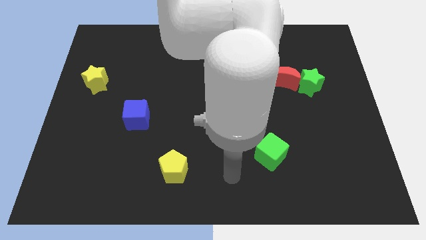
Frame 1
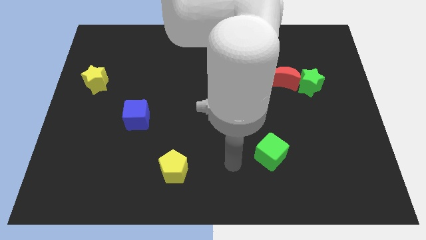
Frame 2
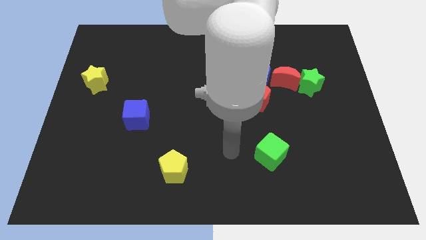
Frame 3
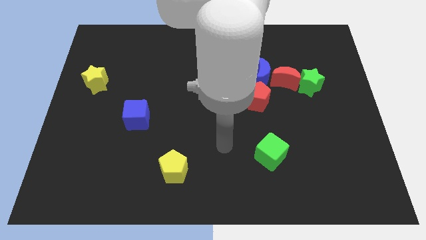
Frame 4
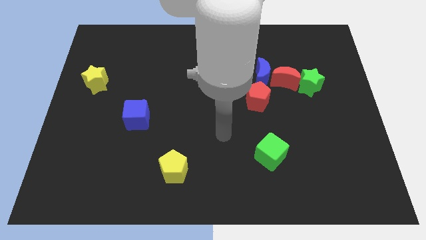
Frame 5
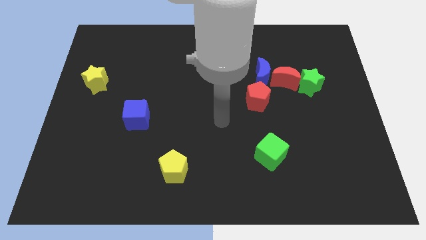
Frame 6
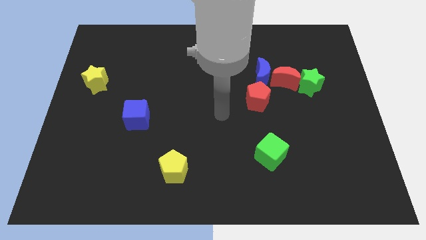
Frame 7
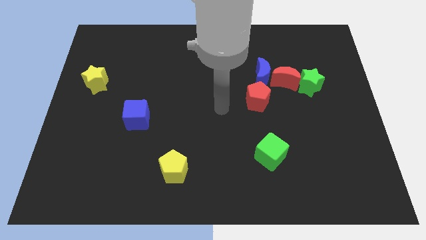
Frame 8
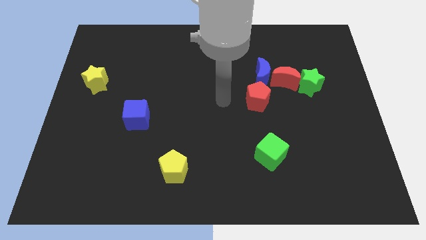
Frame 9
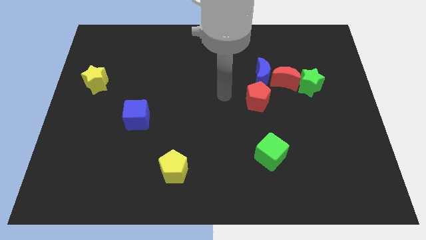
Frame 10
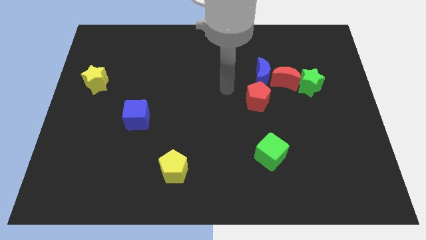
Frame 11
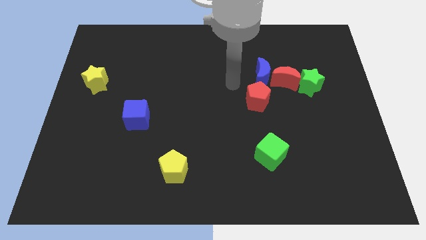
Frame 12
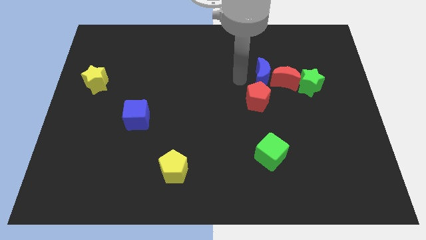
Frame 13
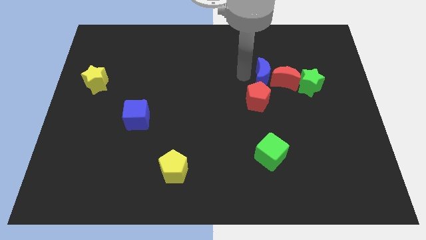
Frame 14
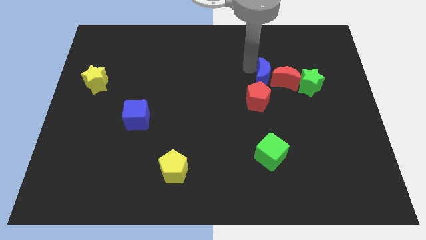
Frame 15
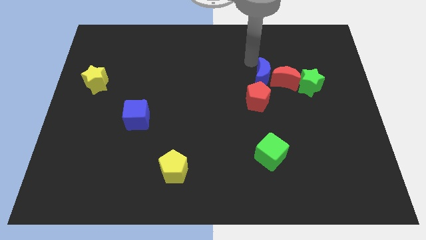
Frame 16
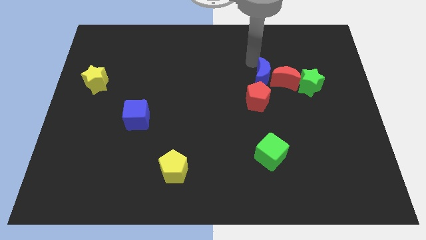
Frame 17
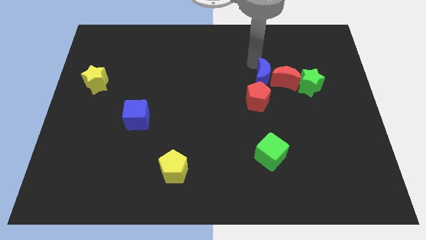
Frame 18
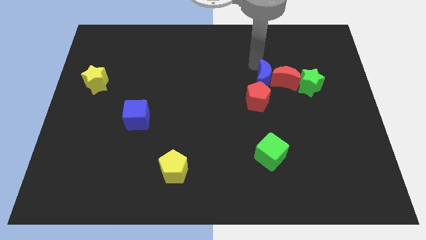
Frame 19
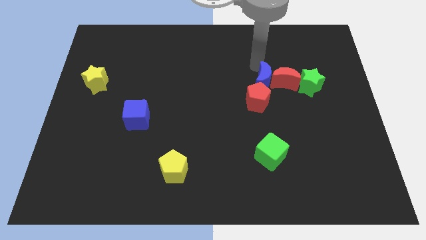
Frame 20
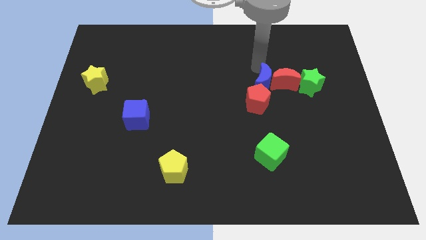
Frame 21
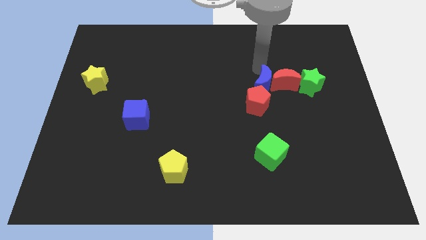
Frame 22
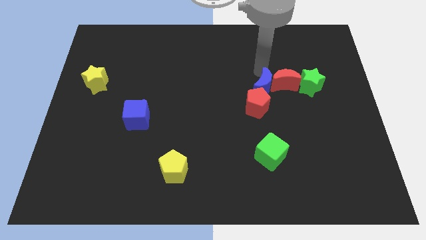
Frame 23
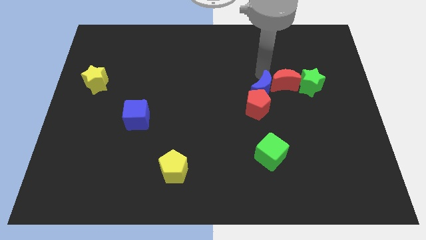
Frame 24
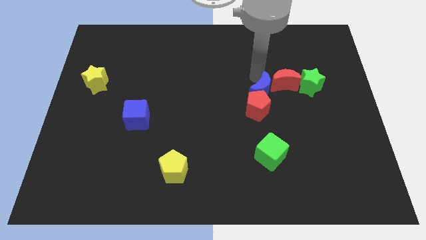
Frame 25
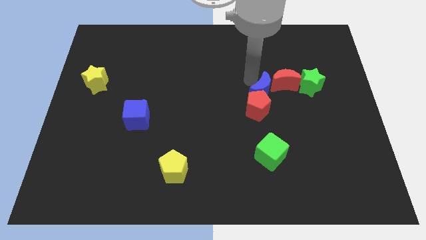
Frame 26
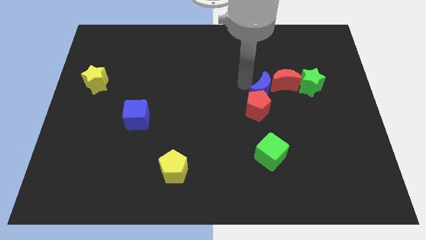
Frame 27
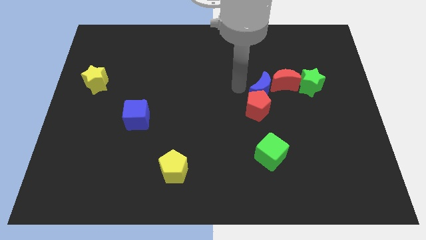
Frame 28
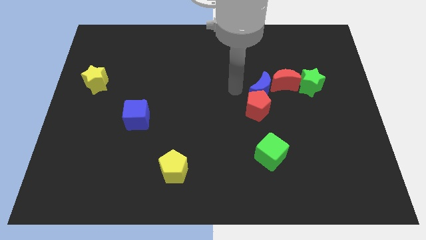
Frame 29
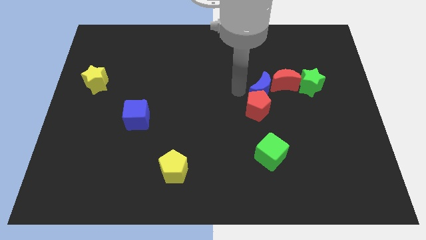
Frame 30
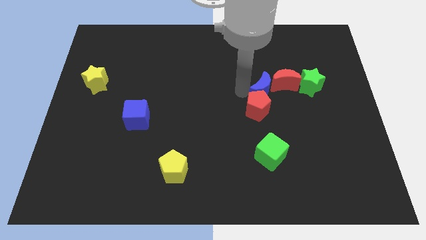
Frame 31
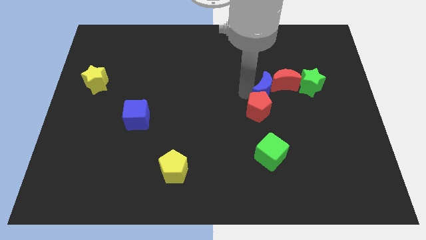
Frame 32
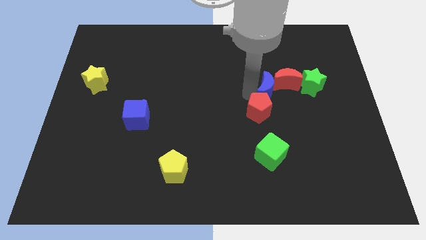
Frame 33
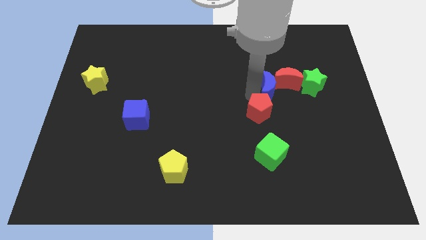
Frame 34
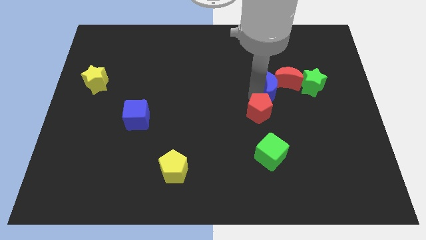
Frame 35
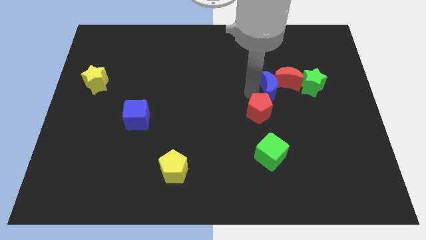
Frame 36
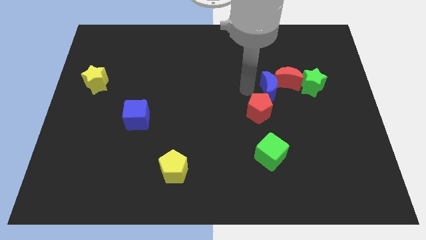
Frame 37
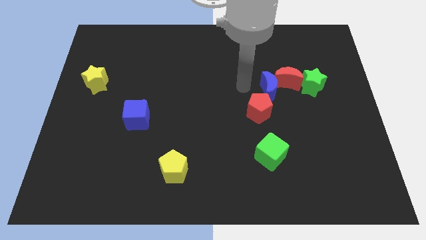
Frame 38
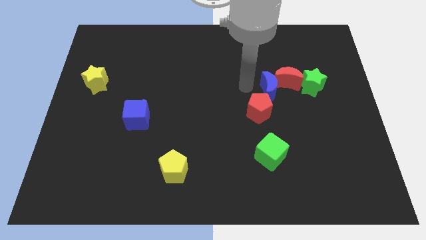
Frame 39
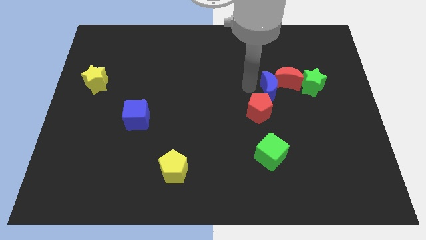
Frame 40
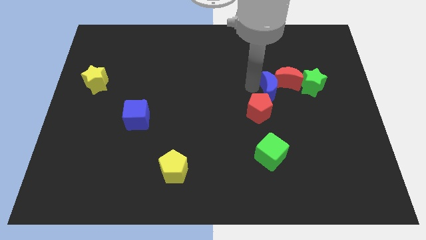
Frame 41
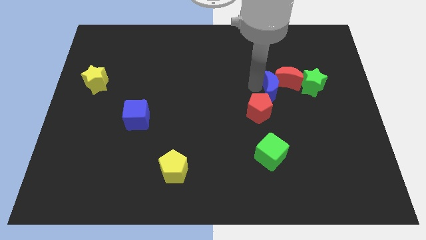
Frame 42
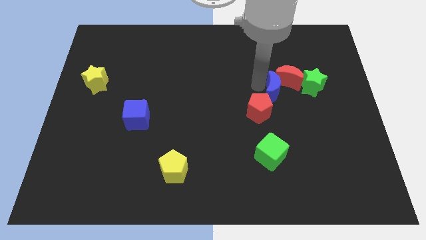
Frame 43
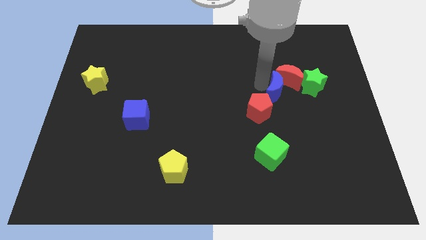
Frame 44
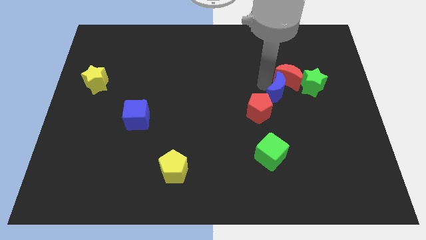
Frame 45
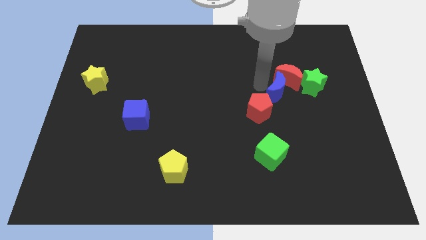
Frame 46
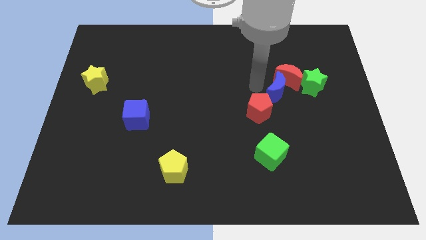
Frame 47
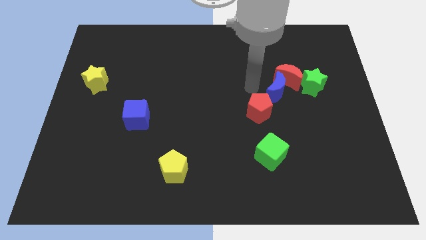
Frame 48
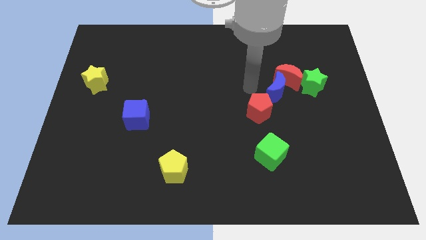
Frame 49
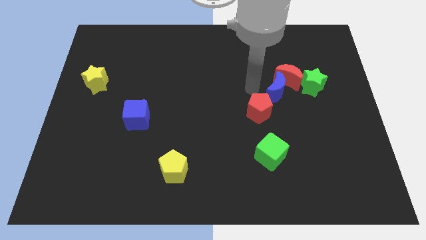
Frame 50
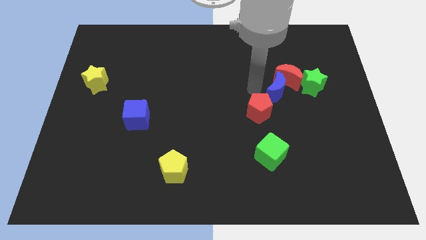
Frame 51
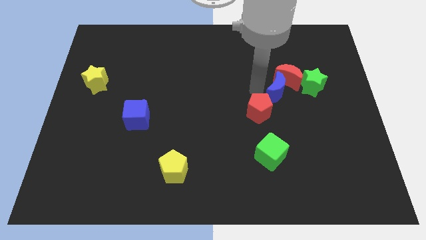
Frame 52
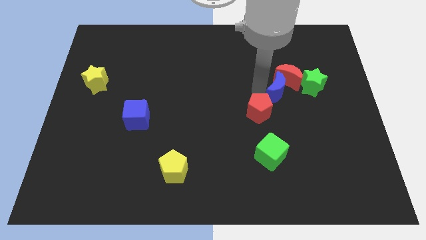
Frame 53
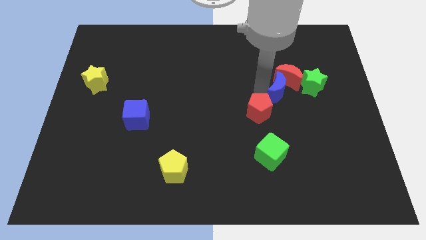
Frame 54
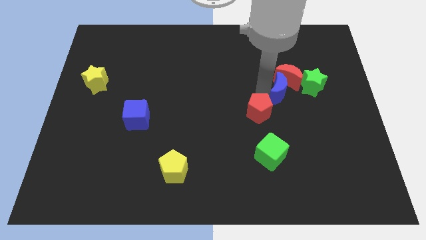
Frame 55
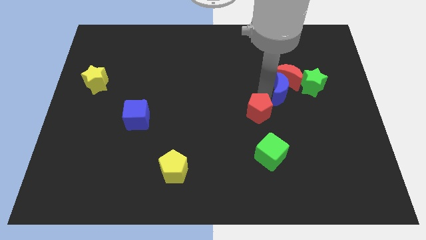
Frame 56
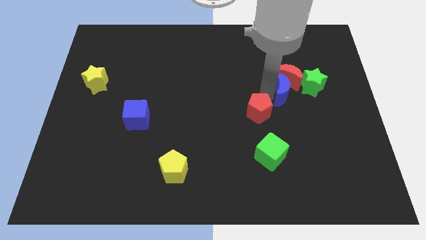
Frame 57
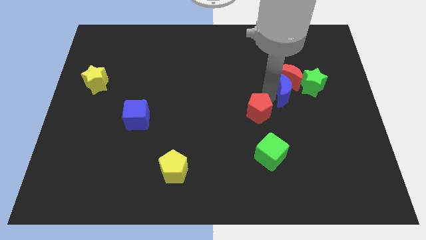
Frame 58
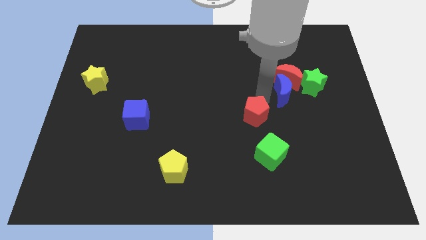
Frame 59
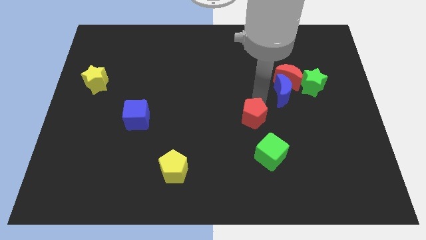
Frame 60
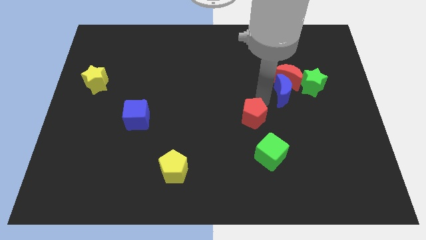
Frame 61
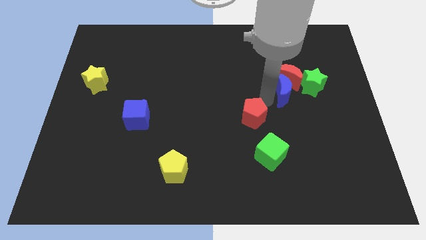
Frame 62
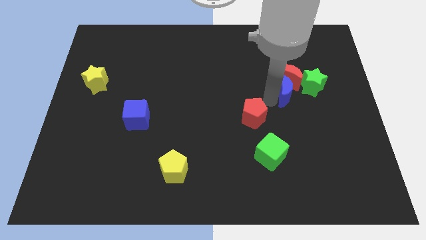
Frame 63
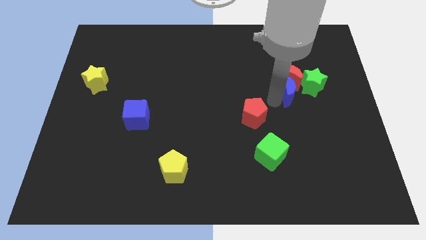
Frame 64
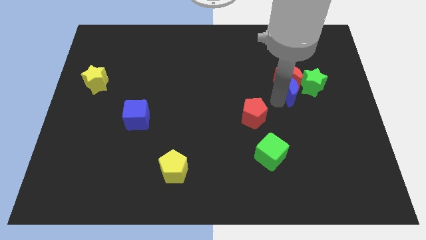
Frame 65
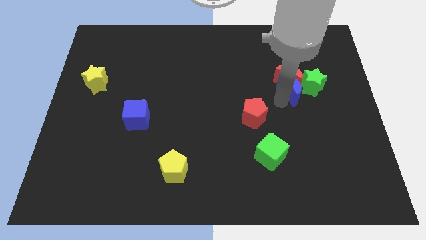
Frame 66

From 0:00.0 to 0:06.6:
put the blue moon next to the green star

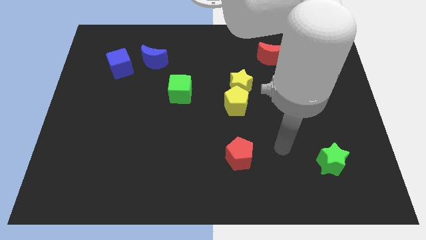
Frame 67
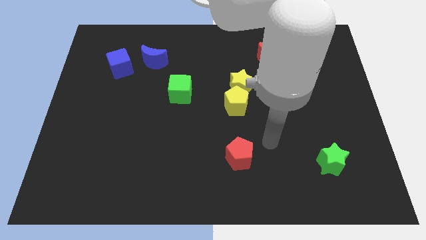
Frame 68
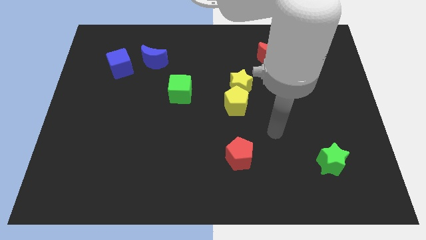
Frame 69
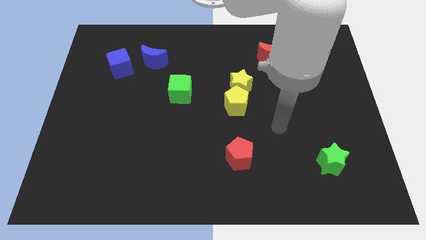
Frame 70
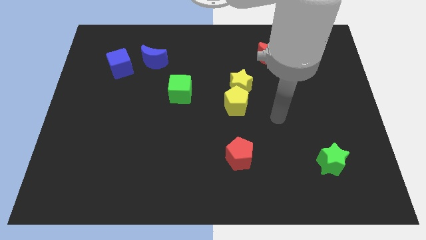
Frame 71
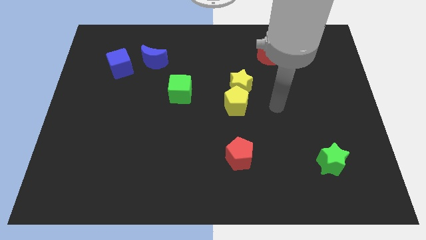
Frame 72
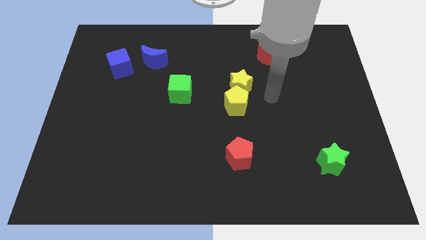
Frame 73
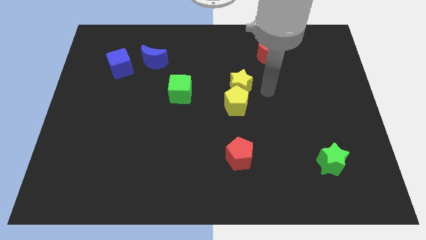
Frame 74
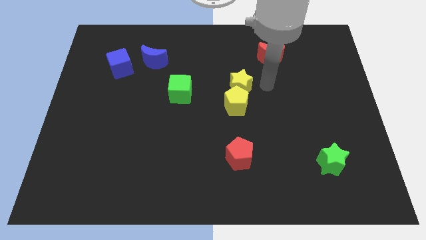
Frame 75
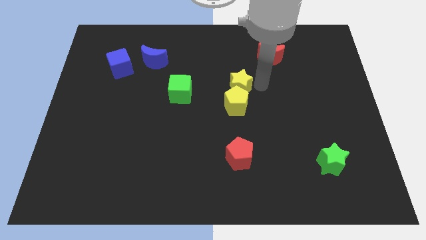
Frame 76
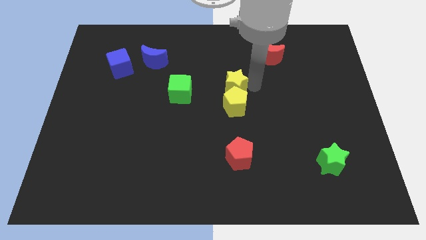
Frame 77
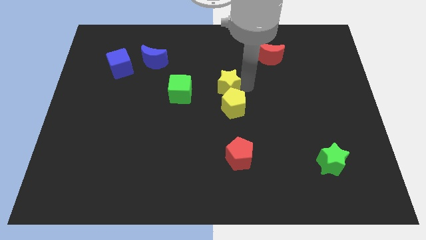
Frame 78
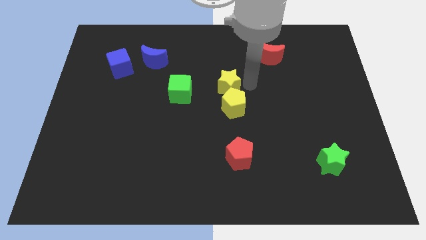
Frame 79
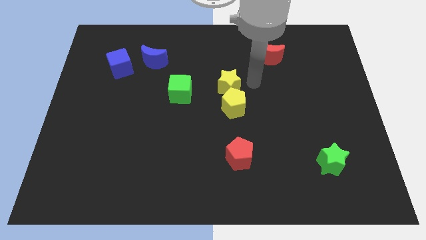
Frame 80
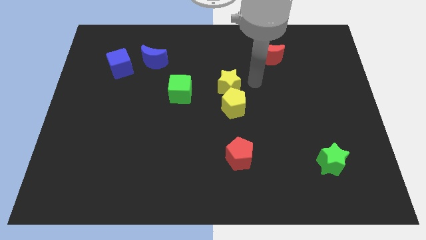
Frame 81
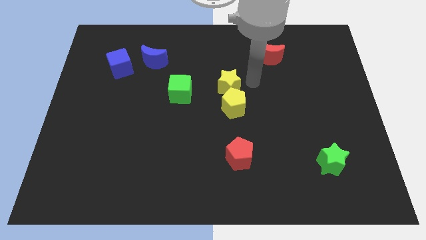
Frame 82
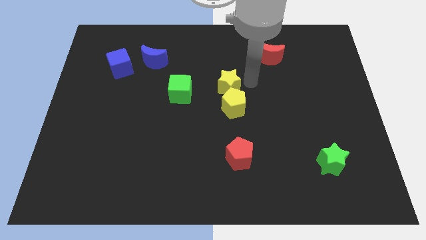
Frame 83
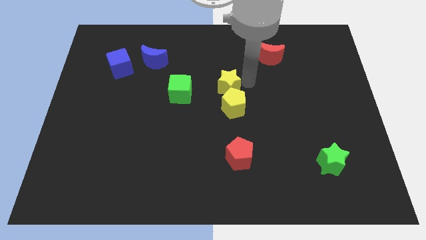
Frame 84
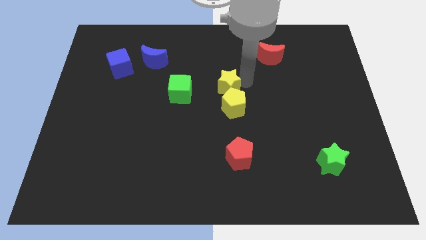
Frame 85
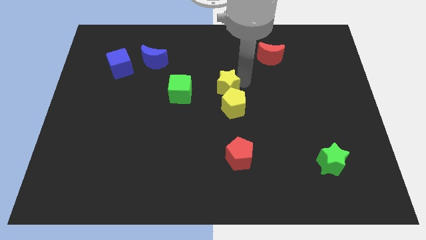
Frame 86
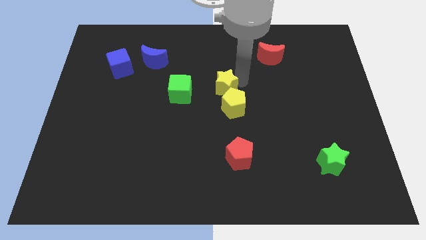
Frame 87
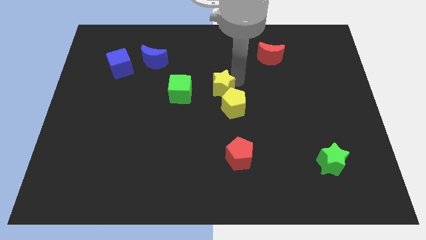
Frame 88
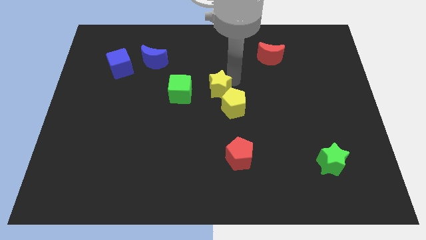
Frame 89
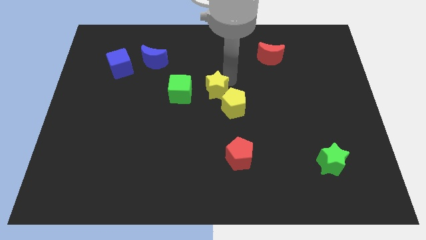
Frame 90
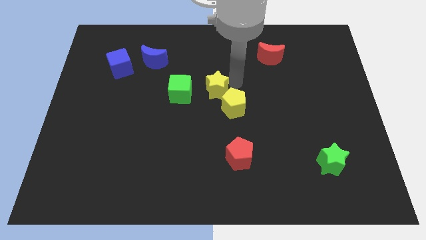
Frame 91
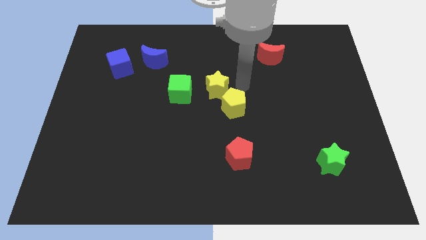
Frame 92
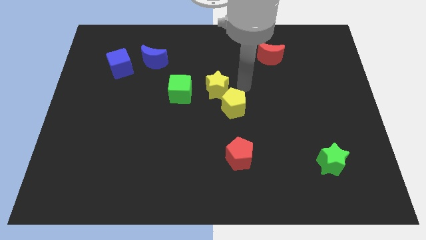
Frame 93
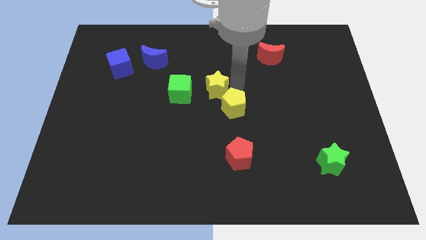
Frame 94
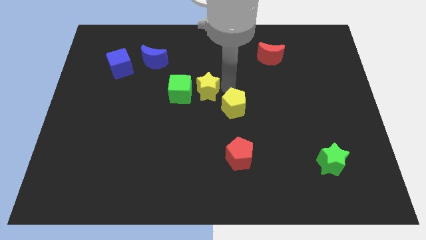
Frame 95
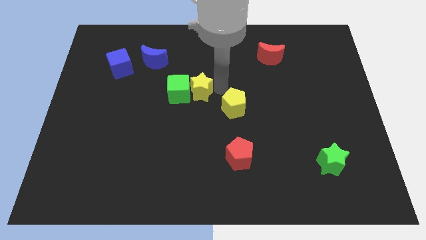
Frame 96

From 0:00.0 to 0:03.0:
slide the yellow star close to the green cube
